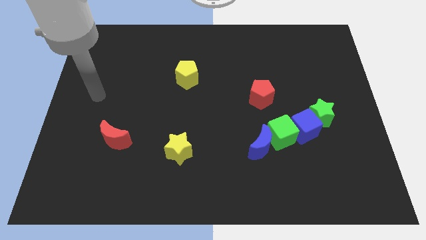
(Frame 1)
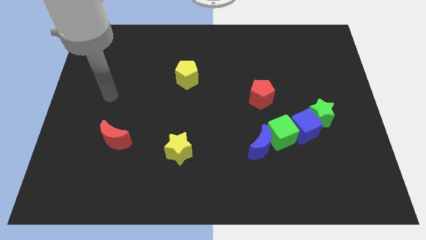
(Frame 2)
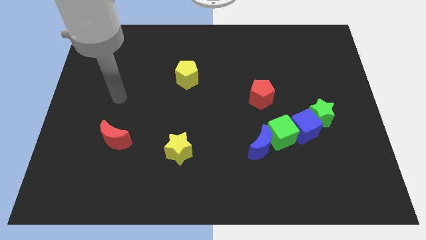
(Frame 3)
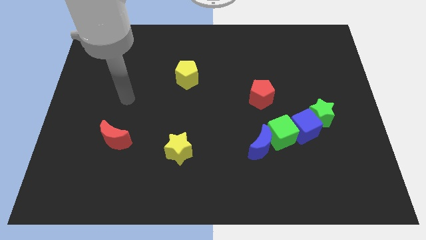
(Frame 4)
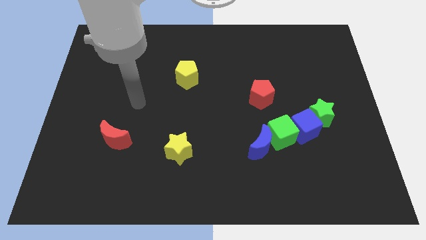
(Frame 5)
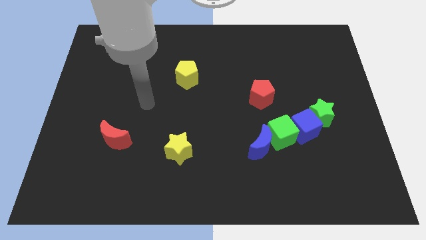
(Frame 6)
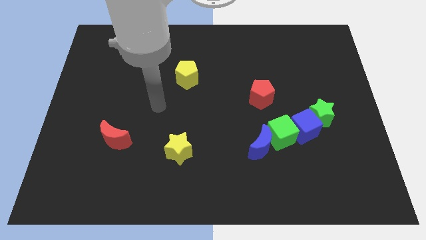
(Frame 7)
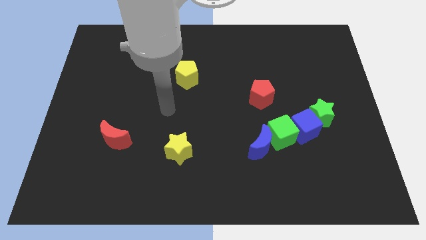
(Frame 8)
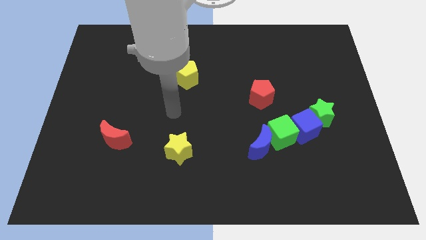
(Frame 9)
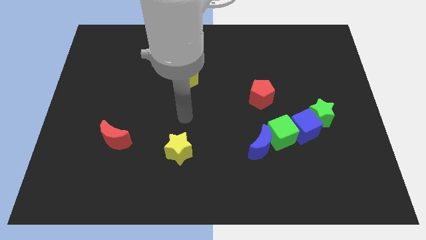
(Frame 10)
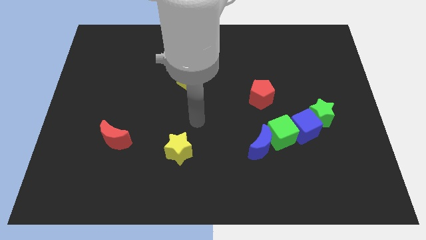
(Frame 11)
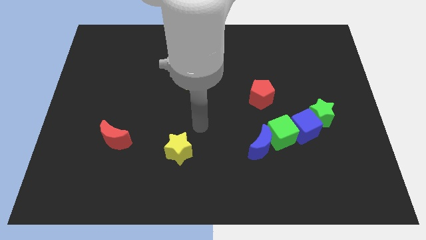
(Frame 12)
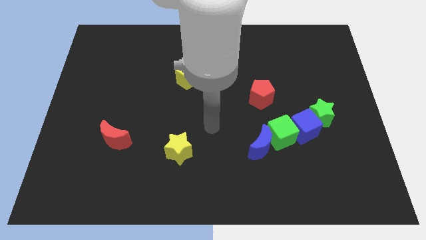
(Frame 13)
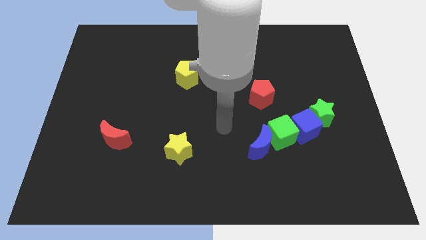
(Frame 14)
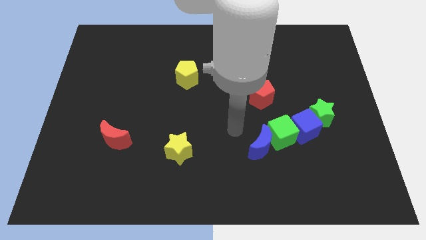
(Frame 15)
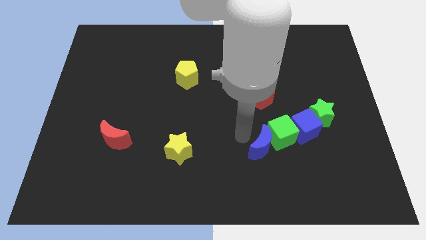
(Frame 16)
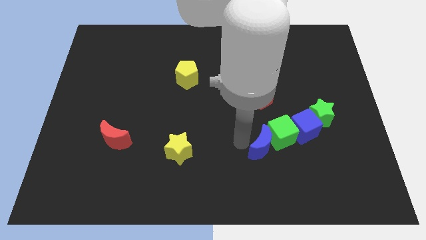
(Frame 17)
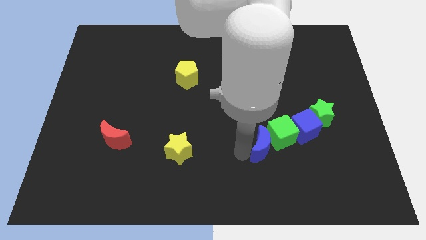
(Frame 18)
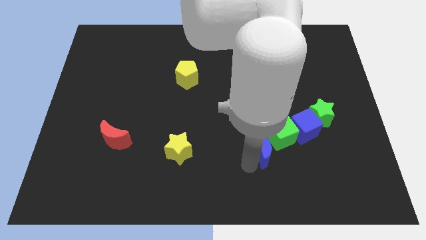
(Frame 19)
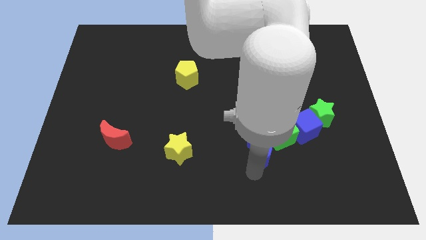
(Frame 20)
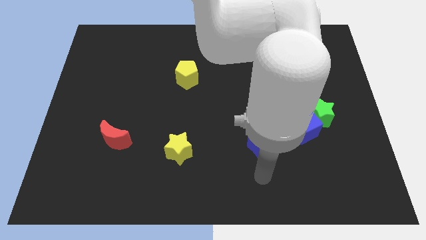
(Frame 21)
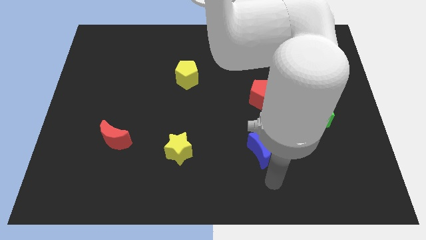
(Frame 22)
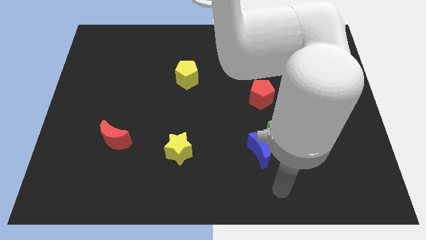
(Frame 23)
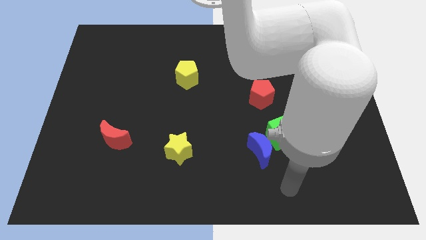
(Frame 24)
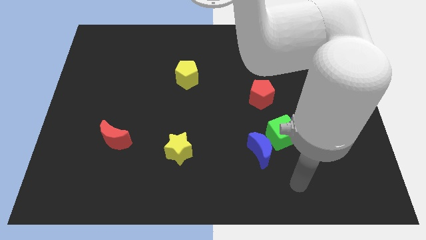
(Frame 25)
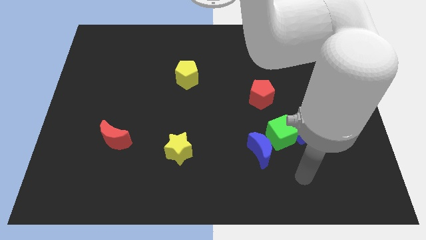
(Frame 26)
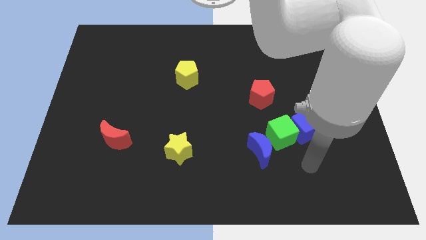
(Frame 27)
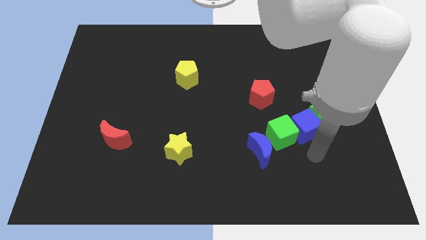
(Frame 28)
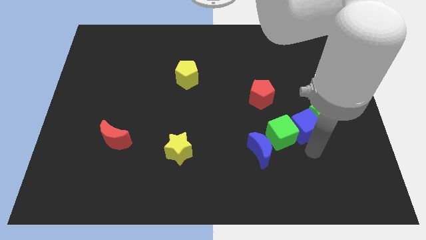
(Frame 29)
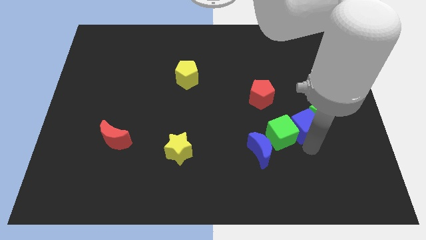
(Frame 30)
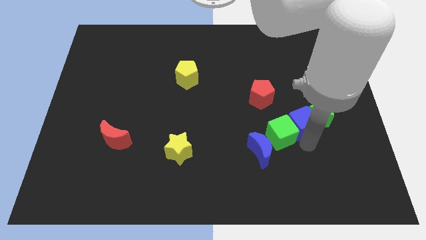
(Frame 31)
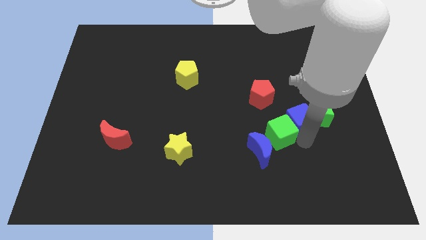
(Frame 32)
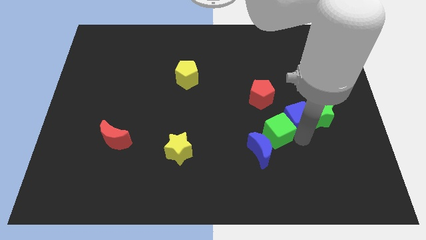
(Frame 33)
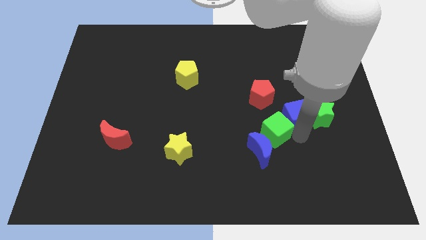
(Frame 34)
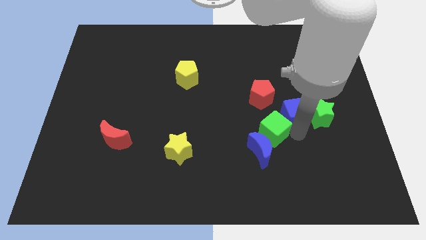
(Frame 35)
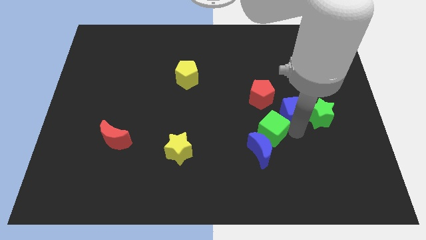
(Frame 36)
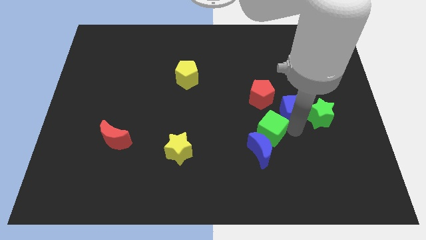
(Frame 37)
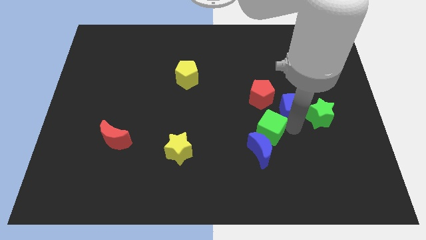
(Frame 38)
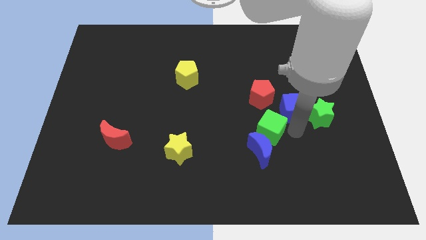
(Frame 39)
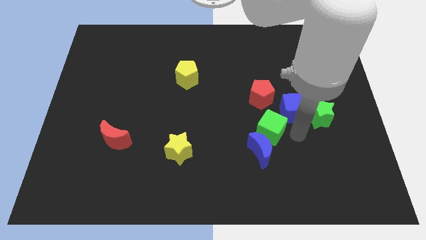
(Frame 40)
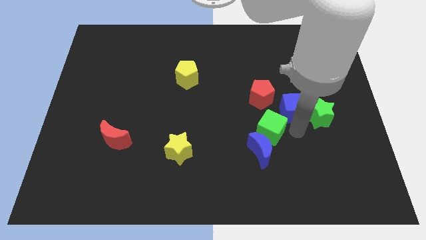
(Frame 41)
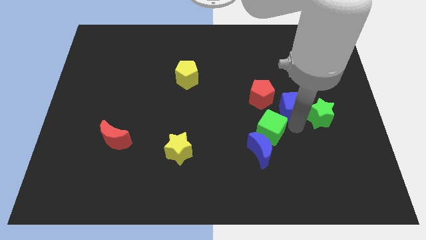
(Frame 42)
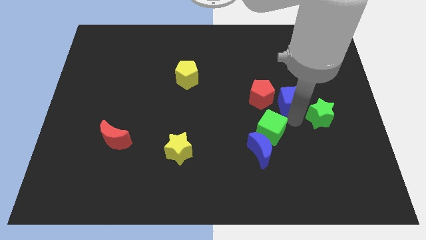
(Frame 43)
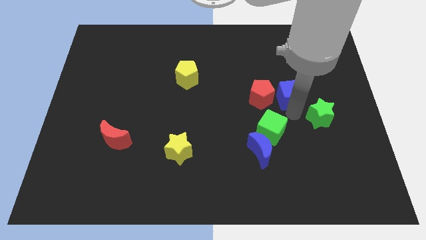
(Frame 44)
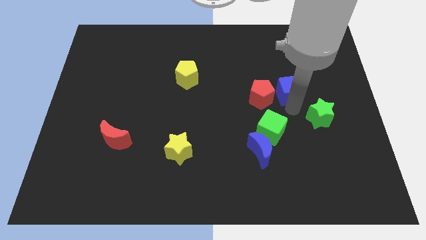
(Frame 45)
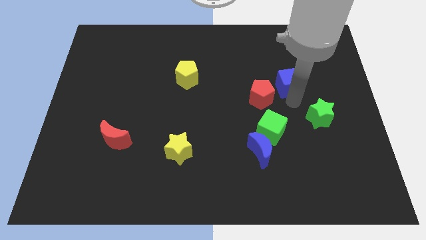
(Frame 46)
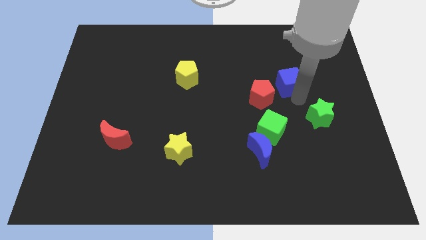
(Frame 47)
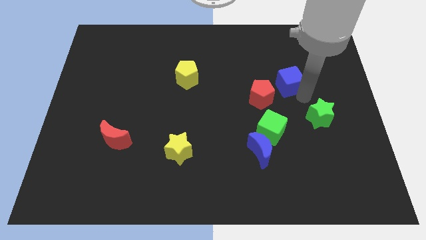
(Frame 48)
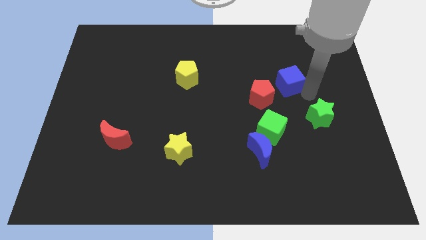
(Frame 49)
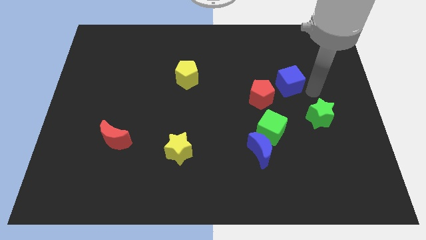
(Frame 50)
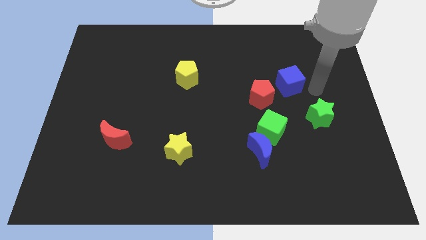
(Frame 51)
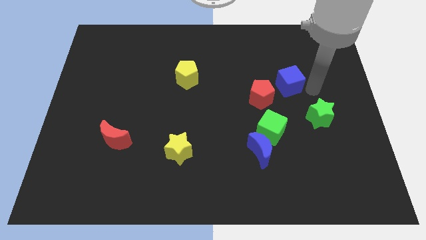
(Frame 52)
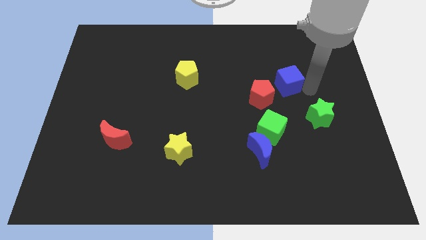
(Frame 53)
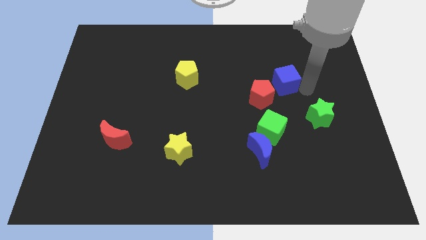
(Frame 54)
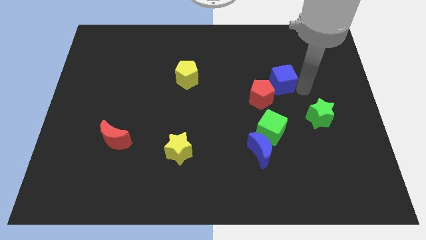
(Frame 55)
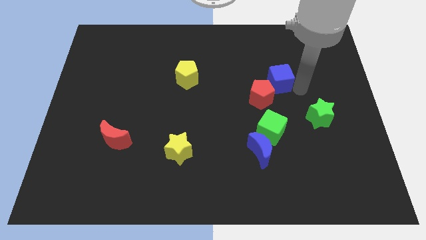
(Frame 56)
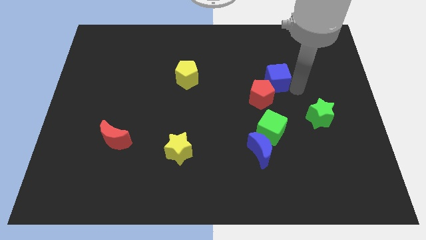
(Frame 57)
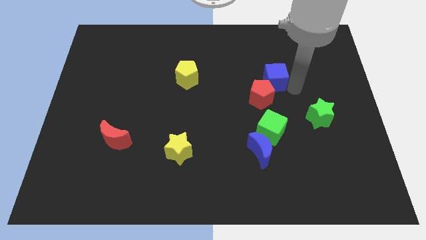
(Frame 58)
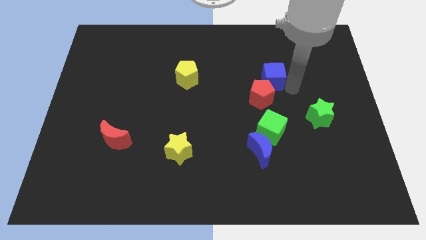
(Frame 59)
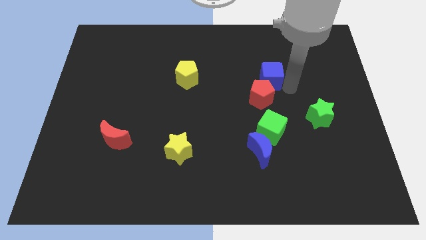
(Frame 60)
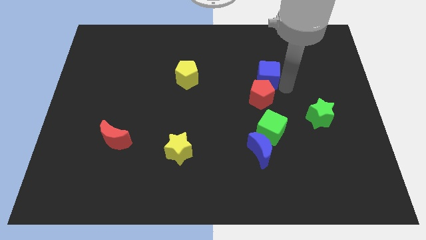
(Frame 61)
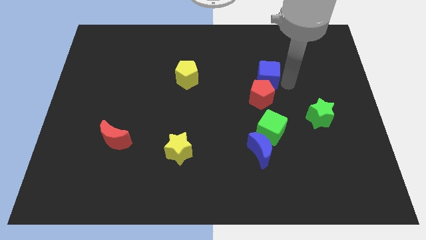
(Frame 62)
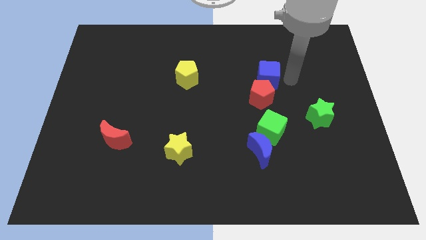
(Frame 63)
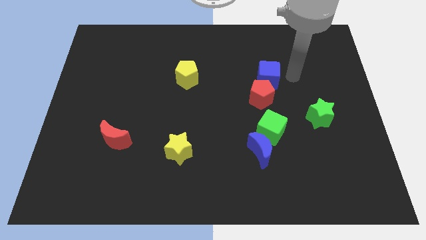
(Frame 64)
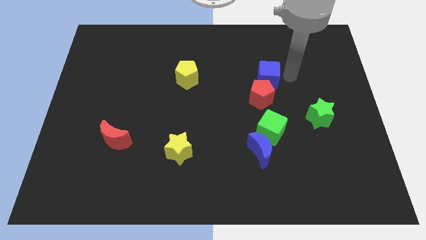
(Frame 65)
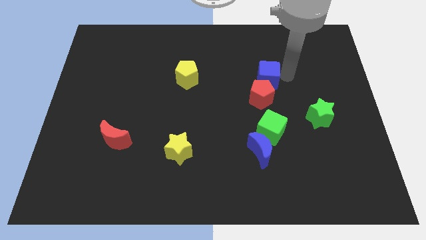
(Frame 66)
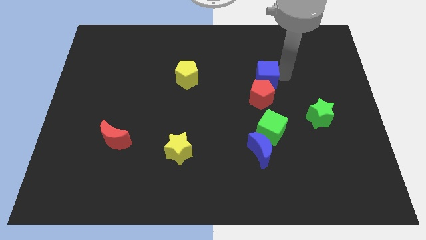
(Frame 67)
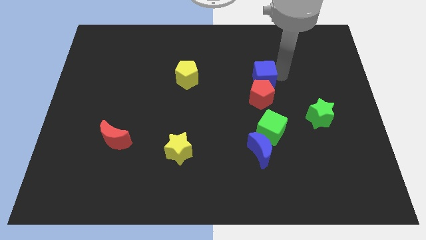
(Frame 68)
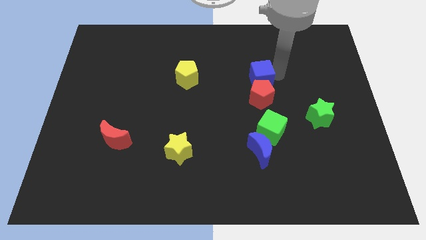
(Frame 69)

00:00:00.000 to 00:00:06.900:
put the blue cube diagonally up and to the left of the red pentagon

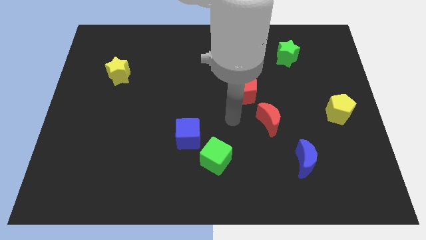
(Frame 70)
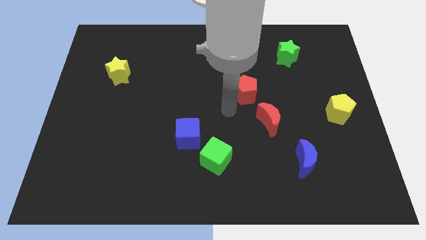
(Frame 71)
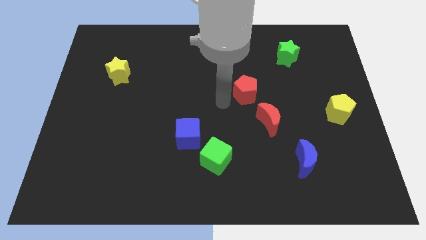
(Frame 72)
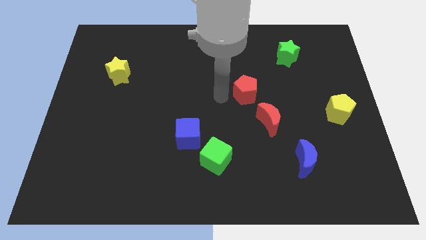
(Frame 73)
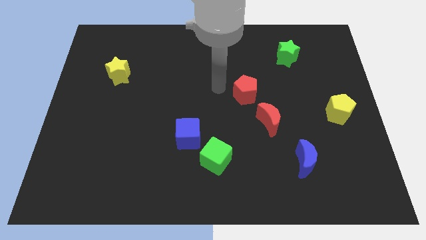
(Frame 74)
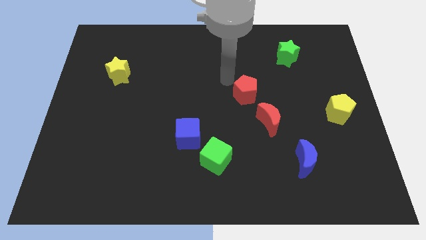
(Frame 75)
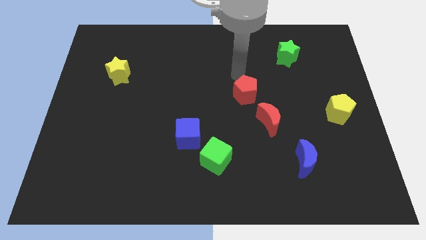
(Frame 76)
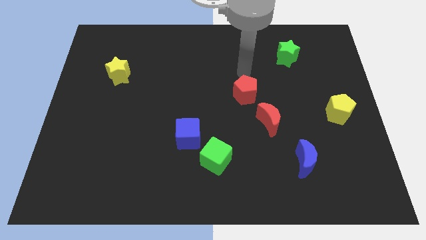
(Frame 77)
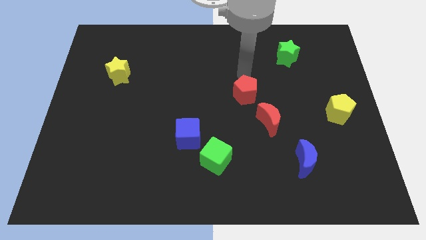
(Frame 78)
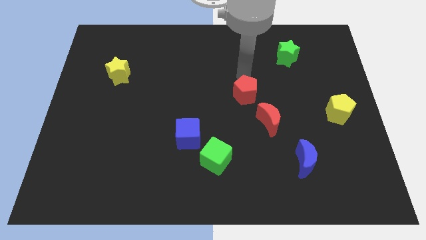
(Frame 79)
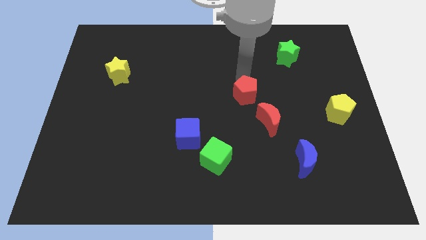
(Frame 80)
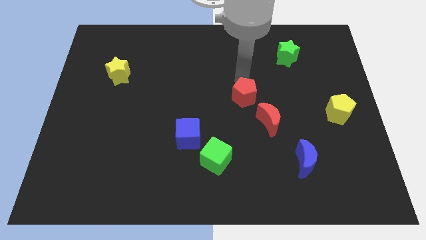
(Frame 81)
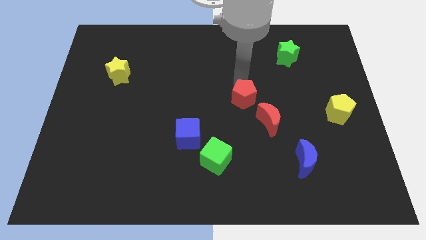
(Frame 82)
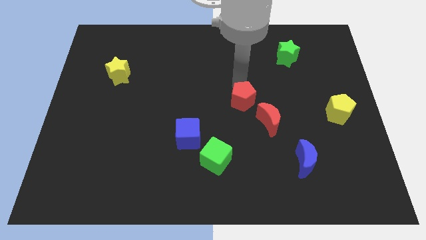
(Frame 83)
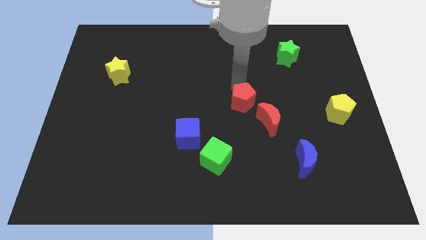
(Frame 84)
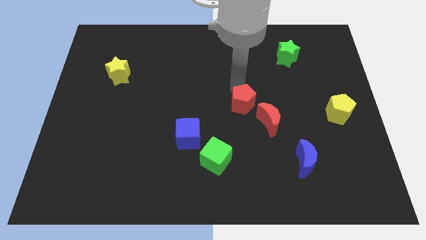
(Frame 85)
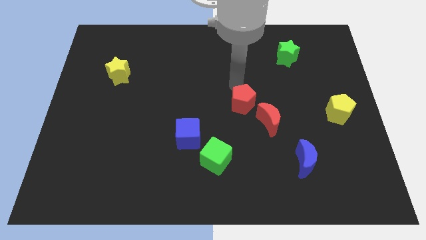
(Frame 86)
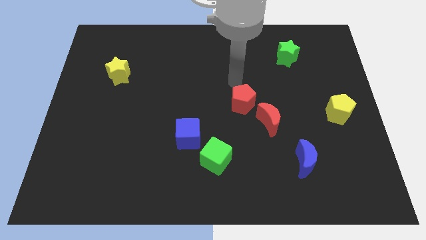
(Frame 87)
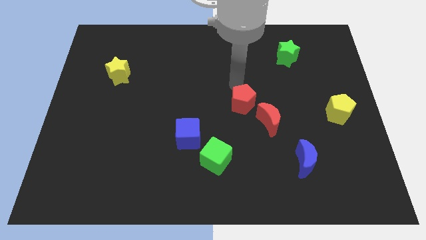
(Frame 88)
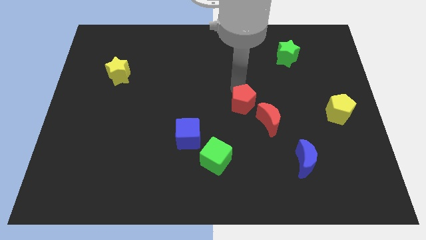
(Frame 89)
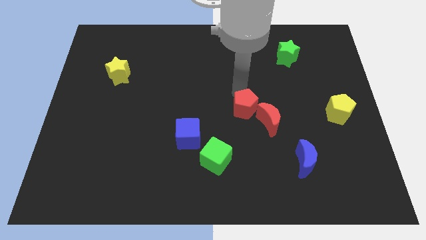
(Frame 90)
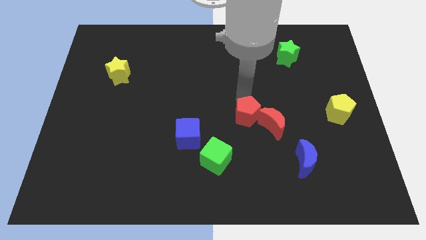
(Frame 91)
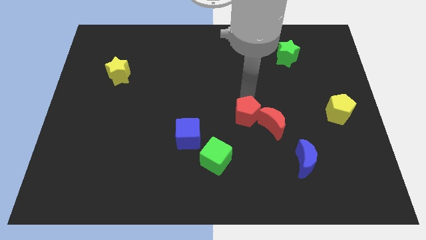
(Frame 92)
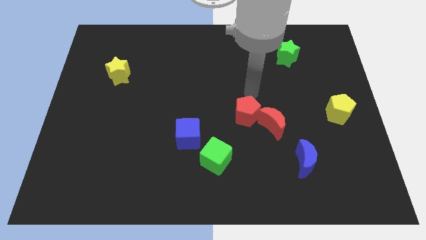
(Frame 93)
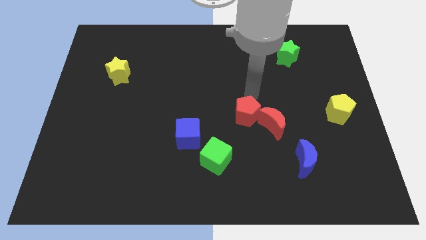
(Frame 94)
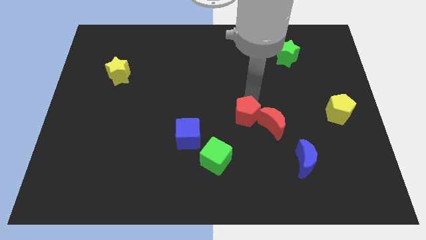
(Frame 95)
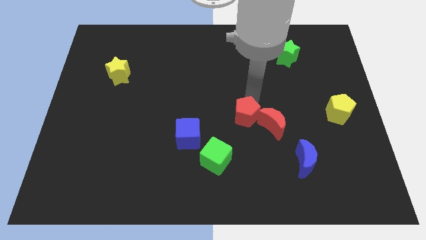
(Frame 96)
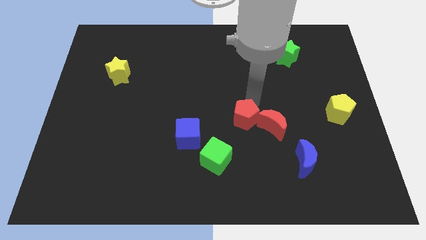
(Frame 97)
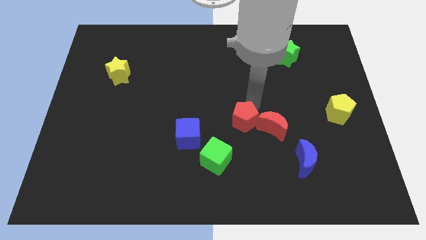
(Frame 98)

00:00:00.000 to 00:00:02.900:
put the red pentagon to the top right side of the green cube
